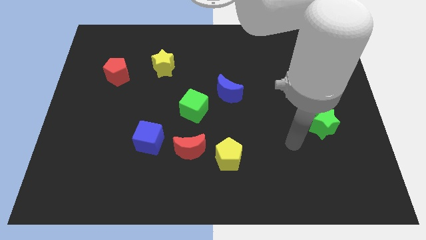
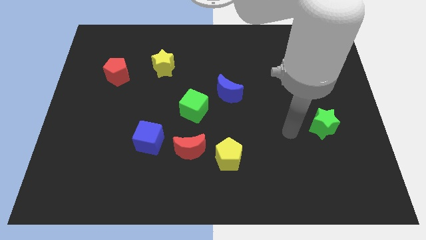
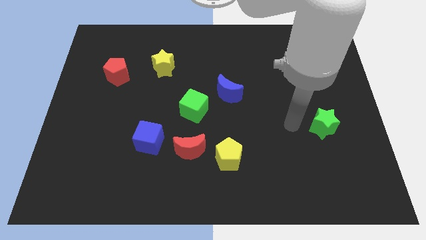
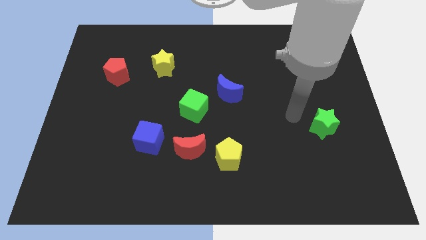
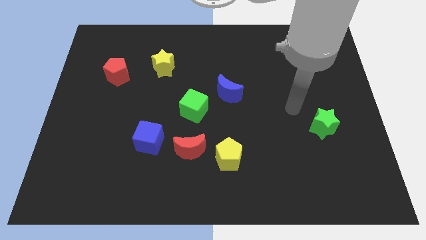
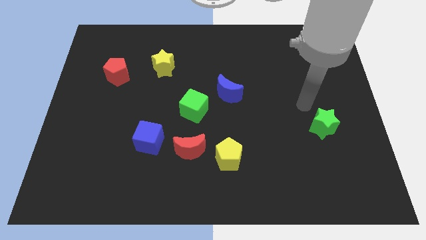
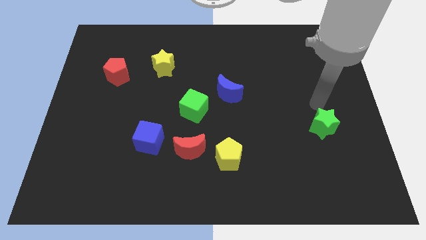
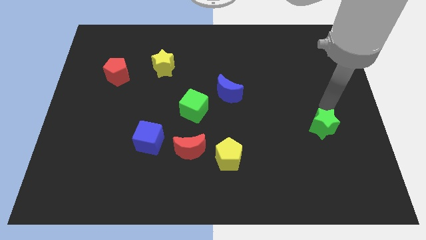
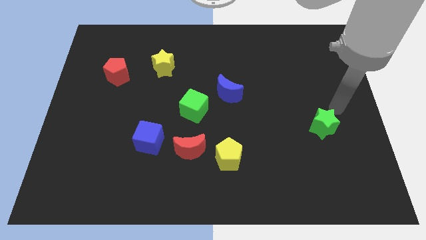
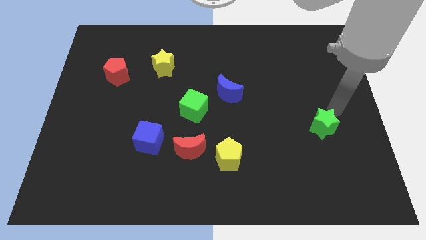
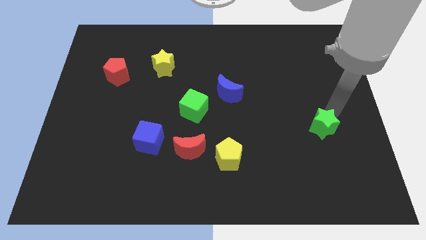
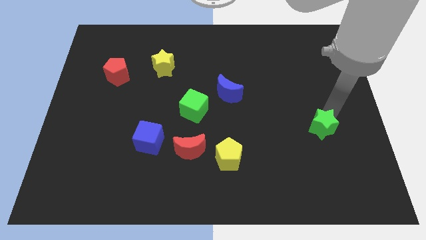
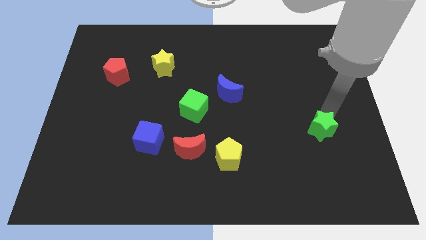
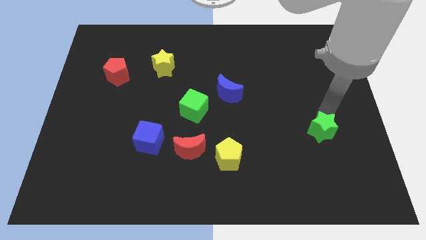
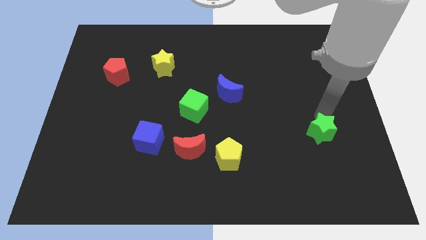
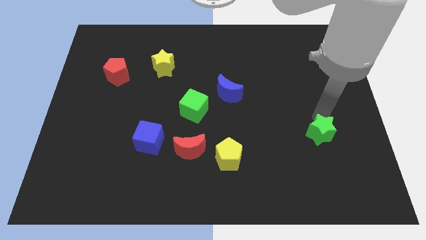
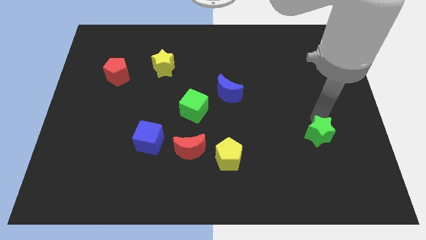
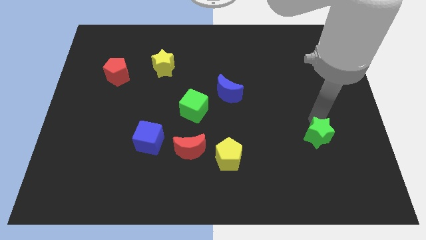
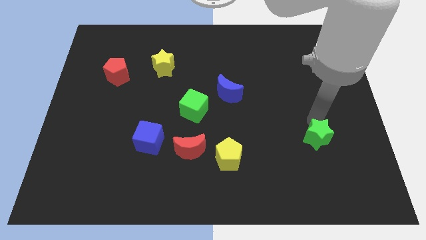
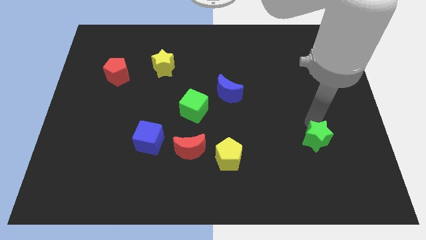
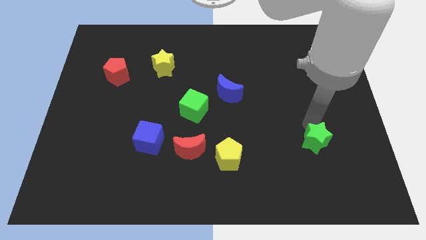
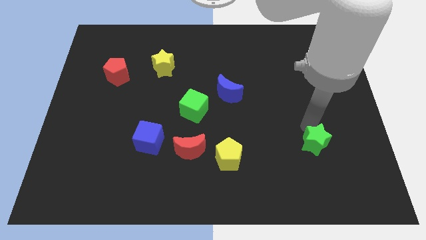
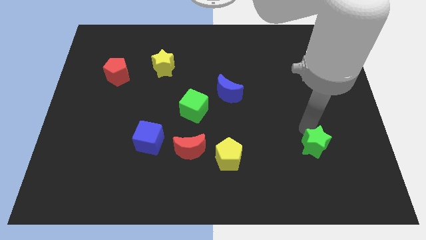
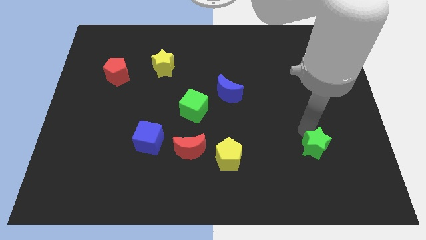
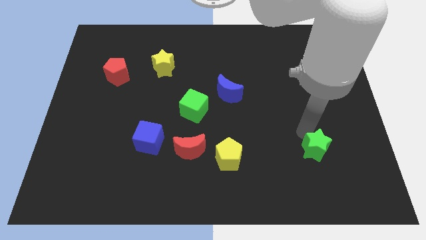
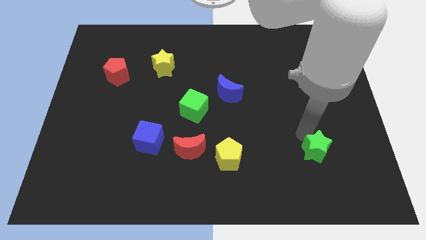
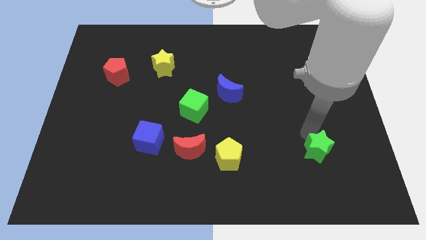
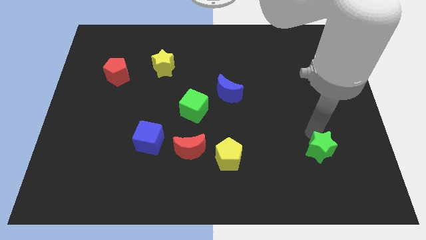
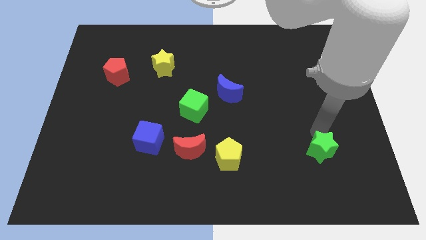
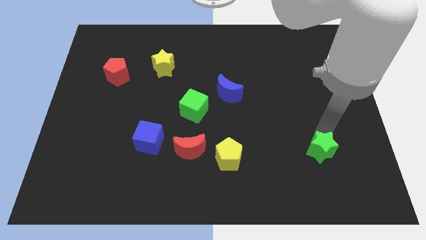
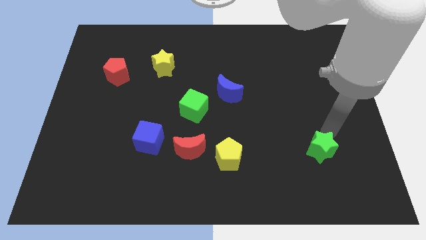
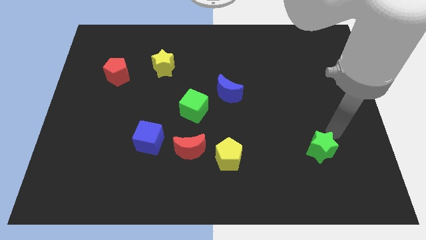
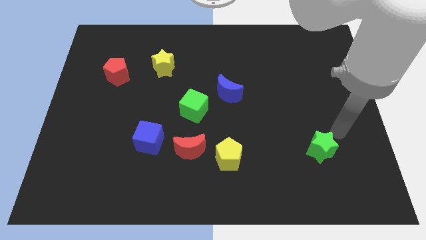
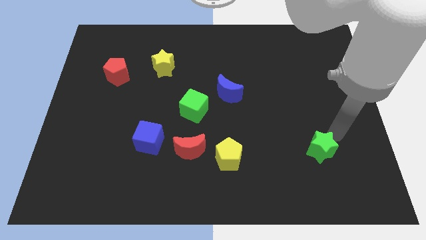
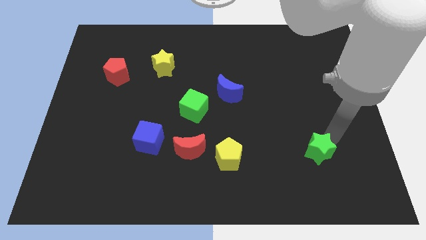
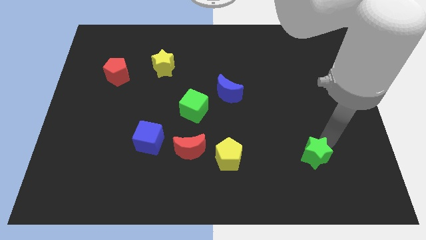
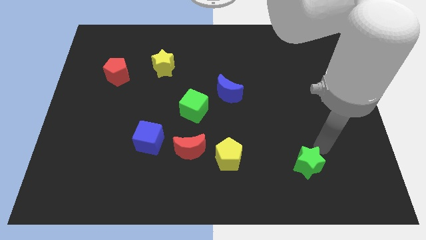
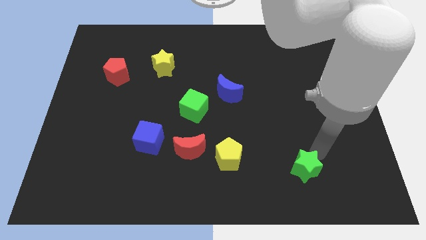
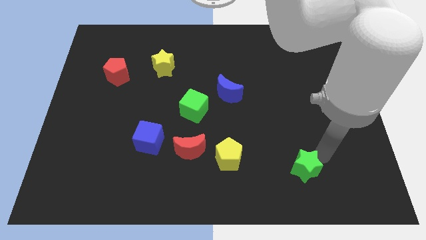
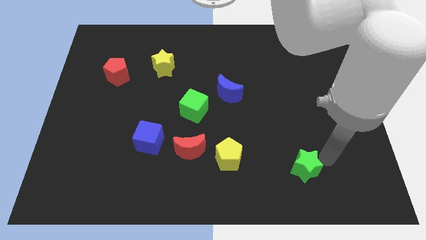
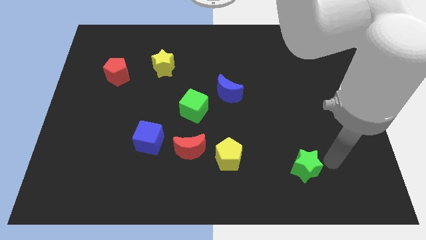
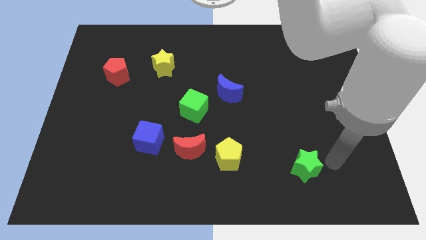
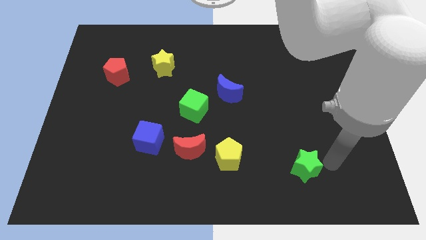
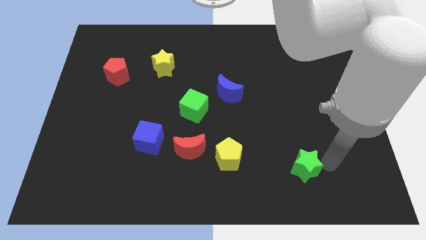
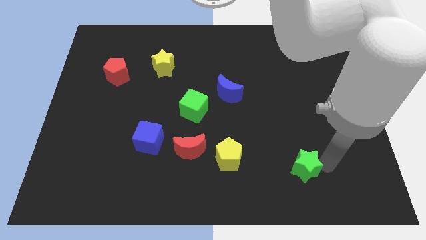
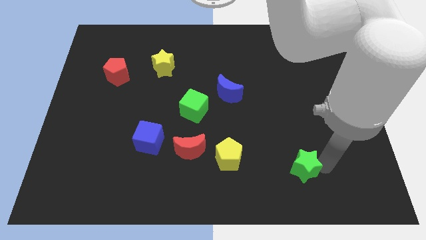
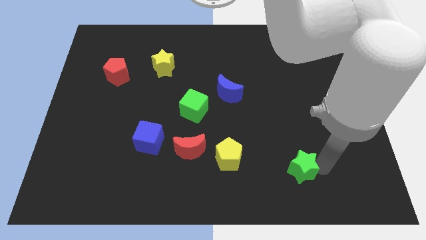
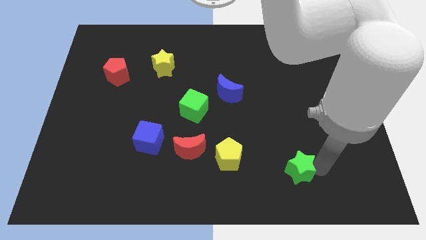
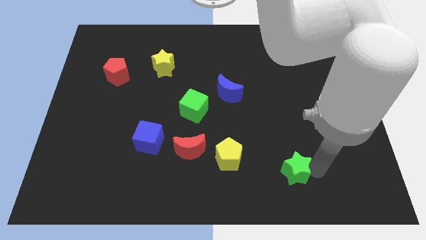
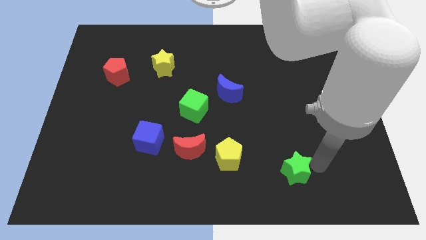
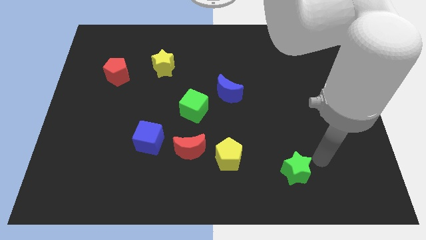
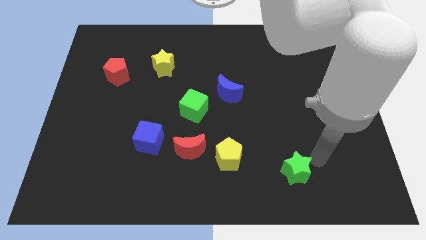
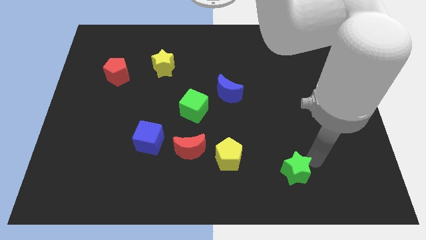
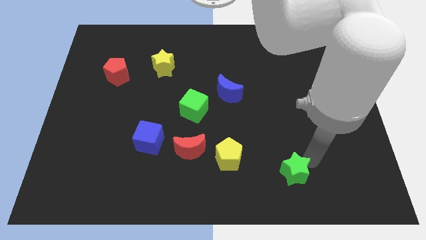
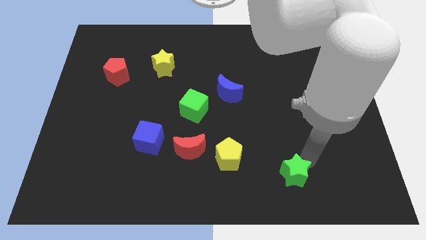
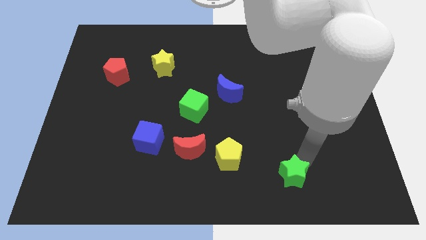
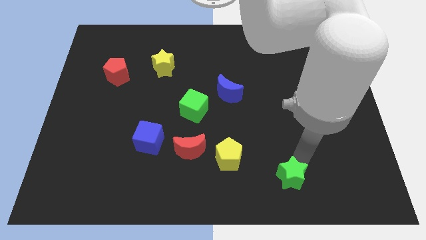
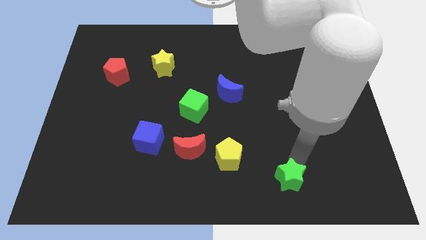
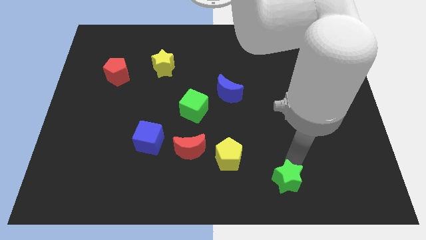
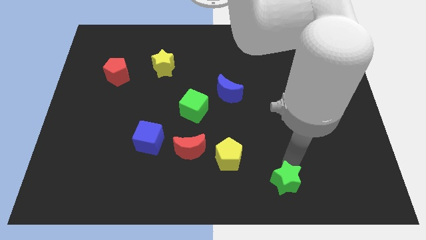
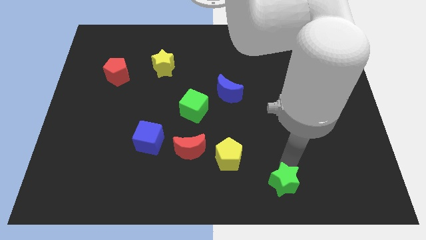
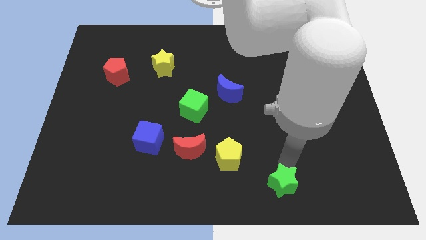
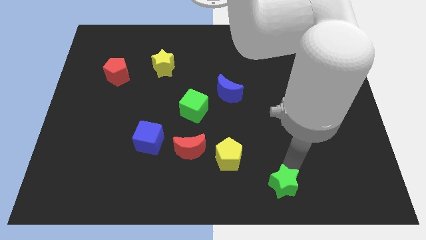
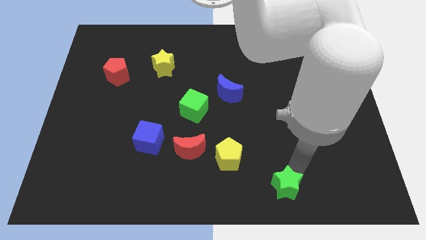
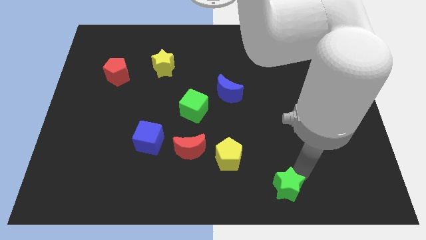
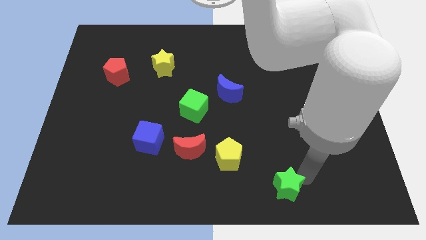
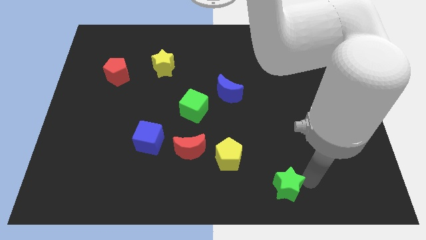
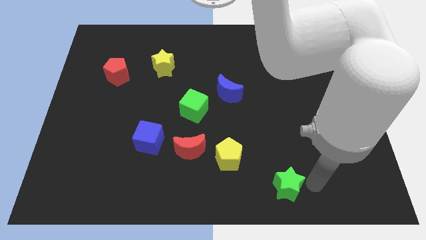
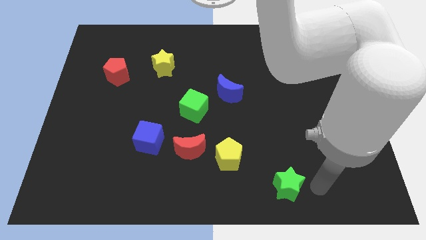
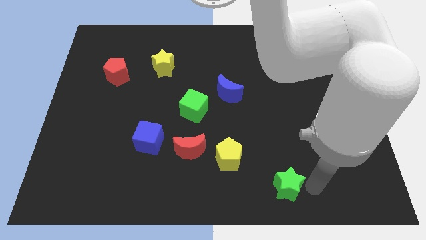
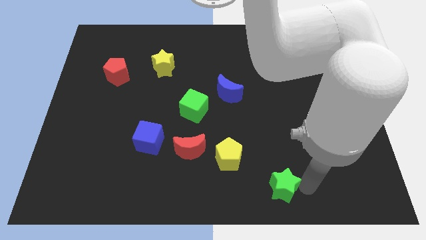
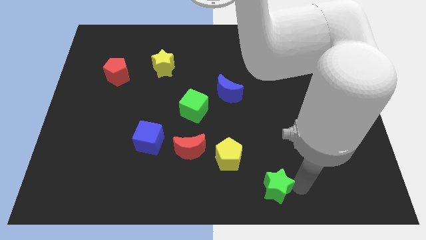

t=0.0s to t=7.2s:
move the green star to the bottom

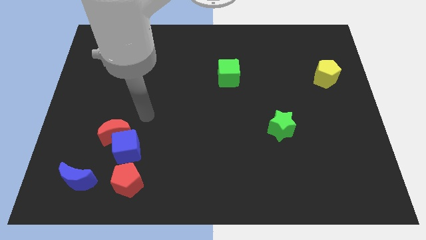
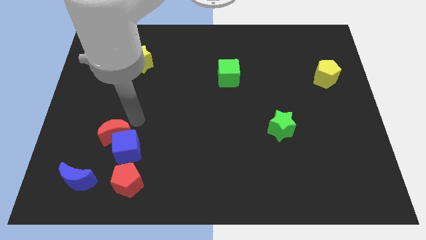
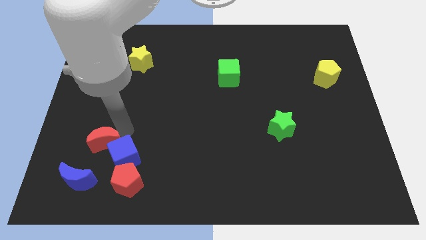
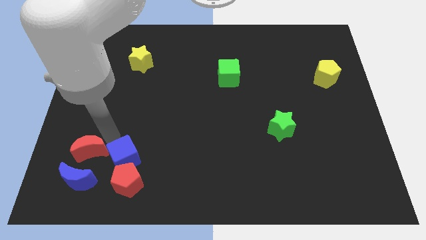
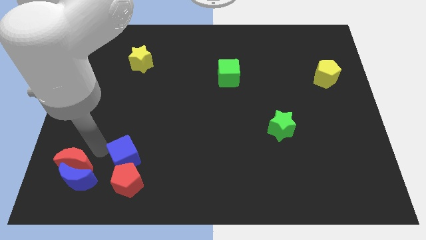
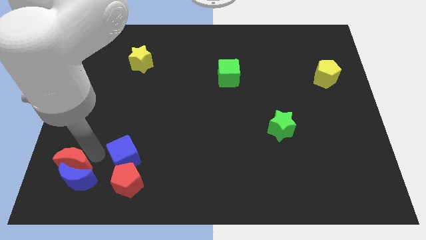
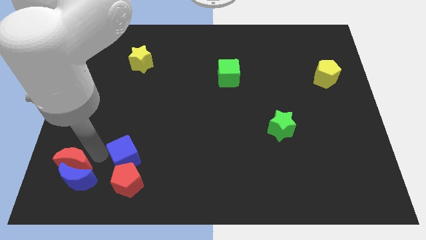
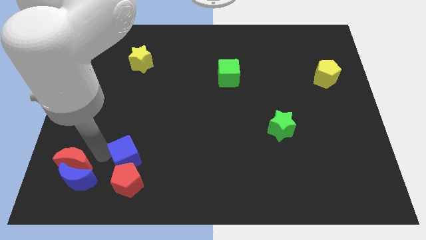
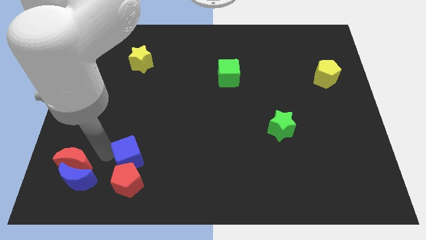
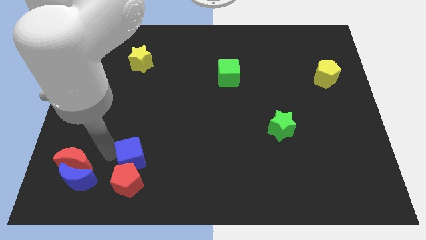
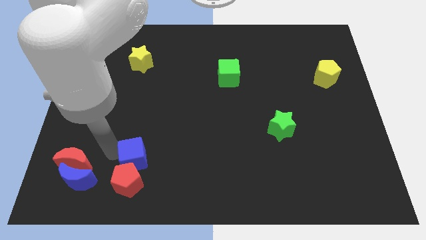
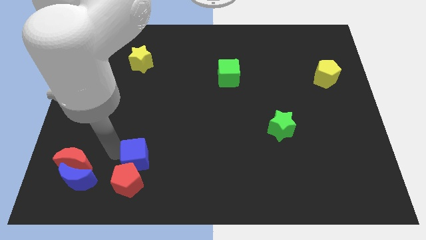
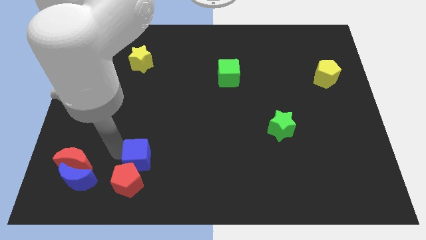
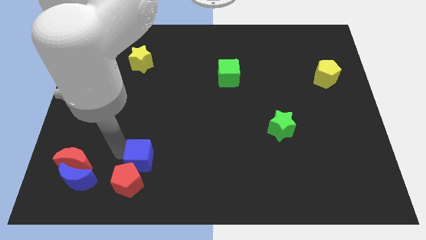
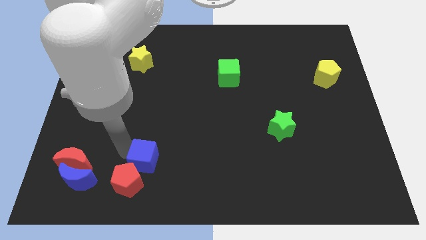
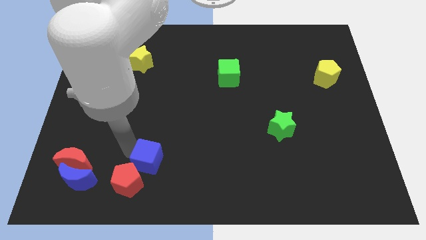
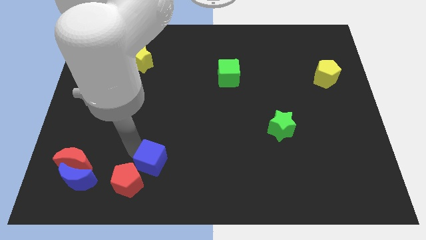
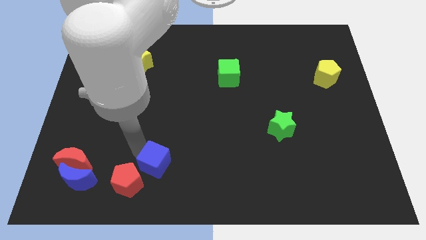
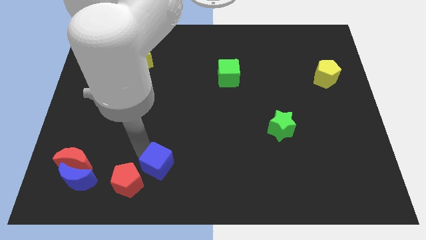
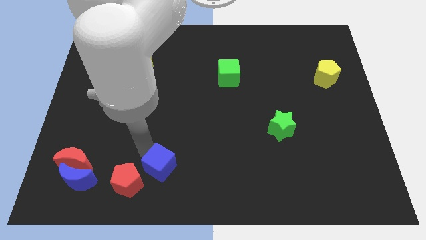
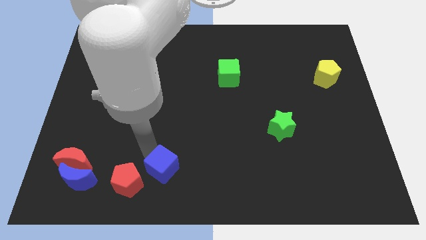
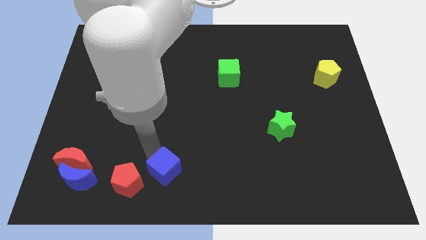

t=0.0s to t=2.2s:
move the blue cube to the bottom side
